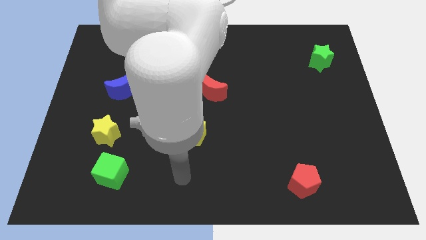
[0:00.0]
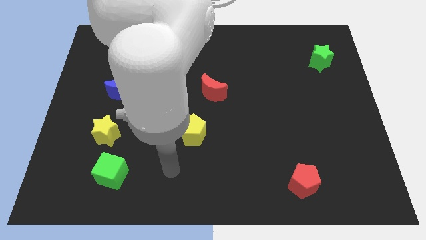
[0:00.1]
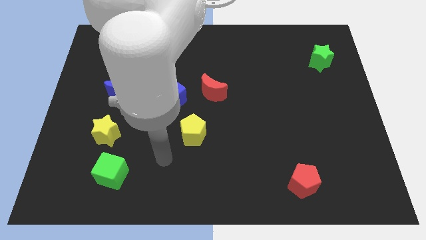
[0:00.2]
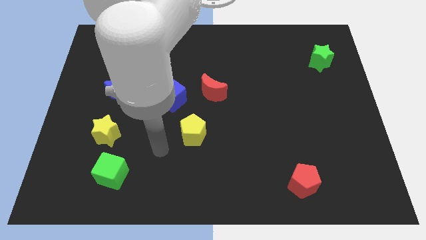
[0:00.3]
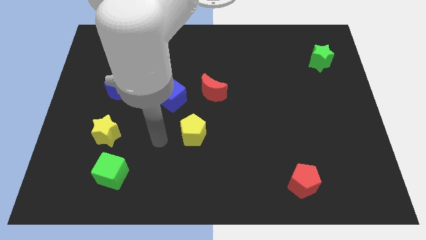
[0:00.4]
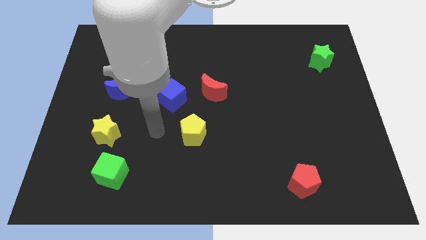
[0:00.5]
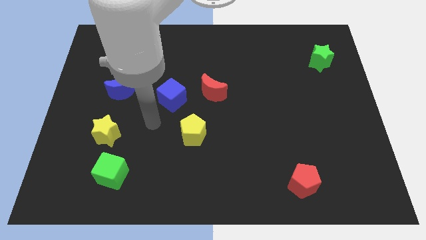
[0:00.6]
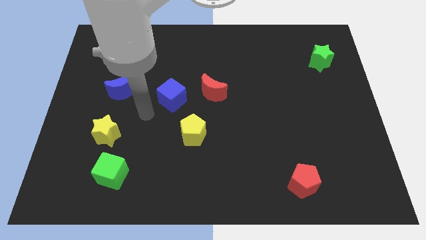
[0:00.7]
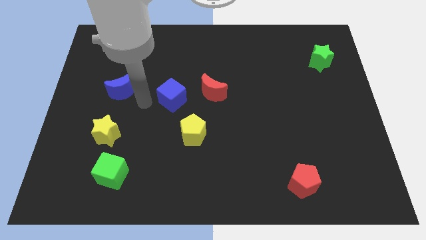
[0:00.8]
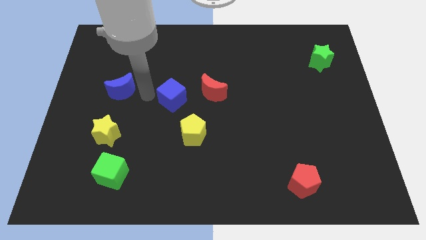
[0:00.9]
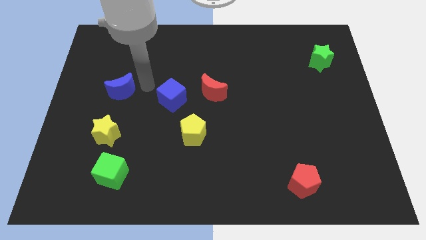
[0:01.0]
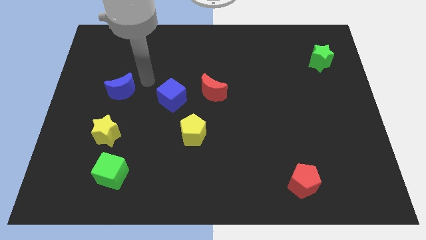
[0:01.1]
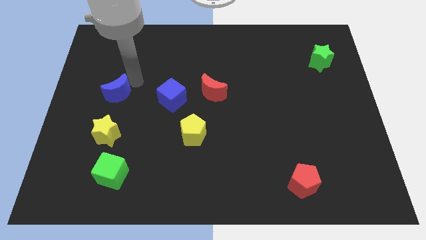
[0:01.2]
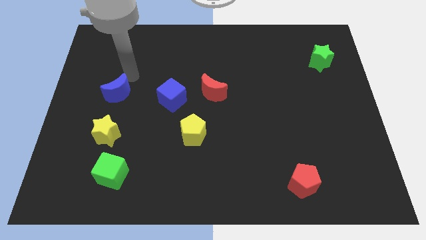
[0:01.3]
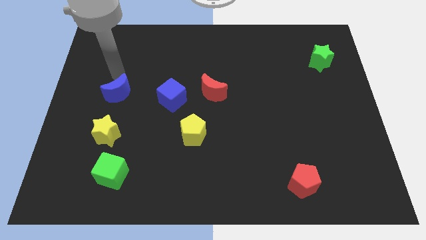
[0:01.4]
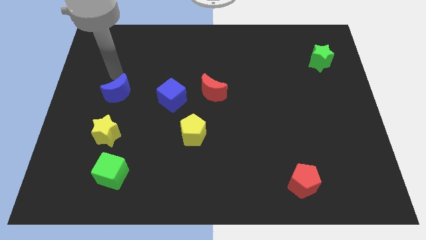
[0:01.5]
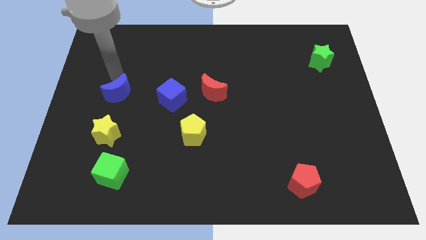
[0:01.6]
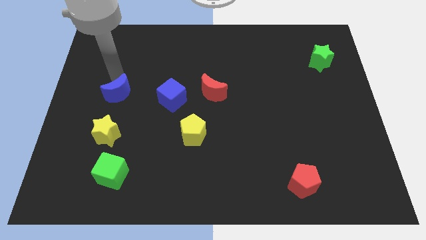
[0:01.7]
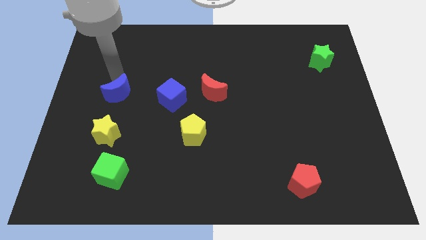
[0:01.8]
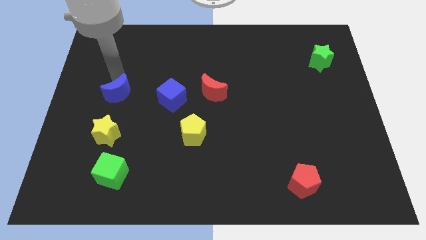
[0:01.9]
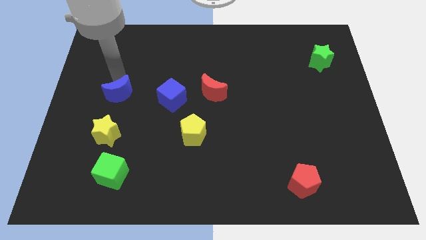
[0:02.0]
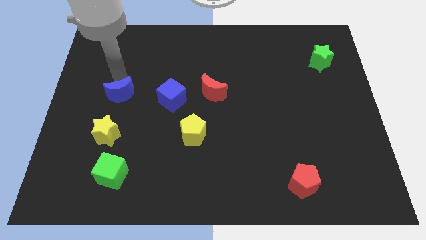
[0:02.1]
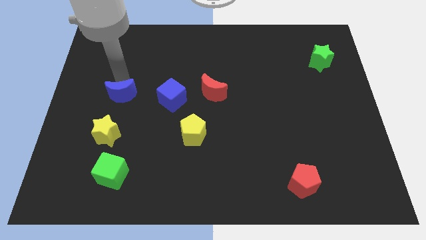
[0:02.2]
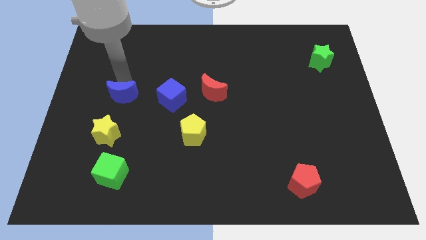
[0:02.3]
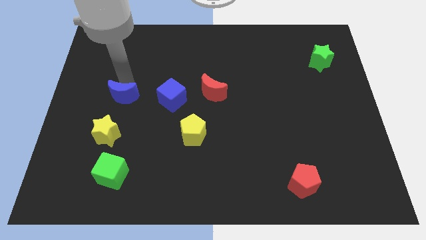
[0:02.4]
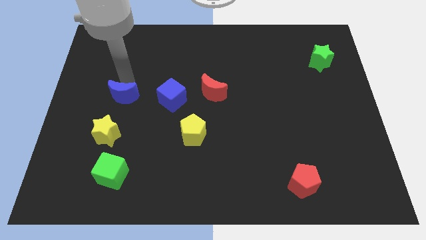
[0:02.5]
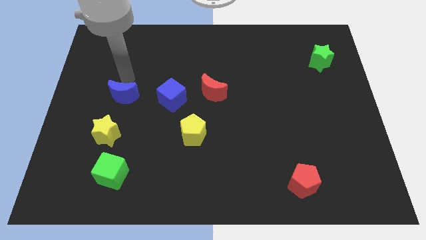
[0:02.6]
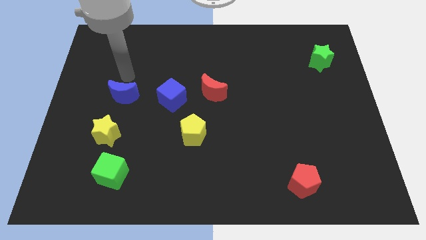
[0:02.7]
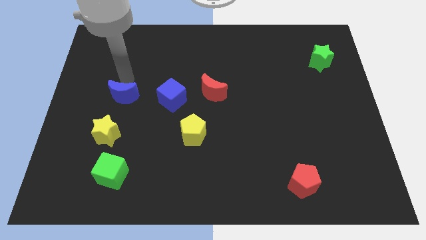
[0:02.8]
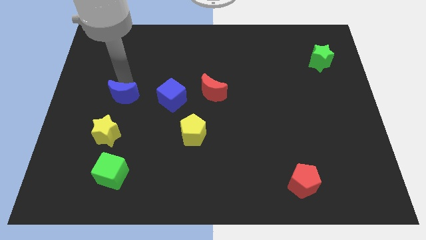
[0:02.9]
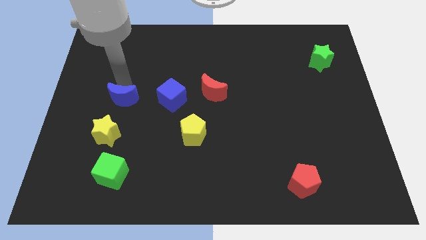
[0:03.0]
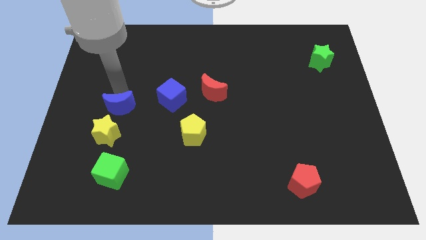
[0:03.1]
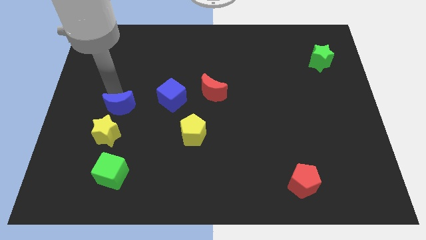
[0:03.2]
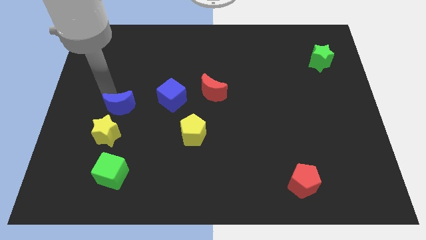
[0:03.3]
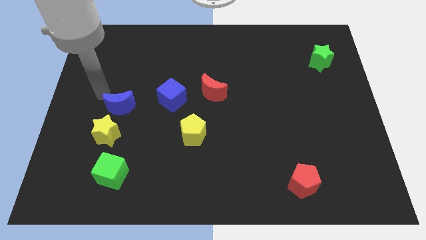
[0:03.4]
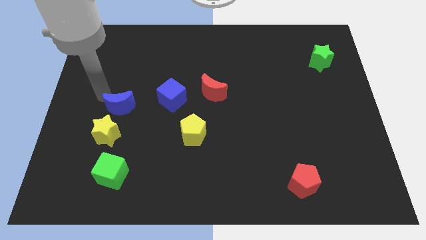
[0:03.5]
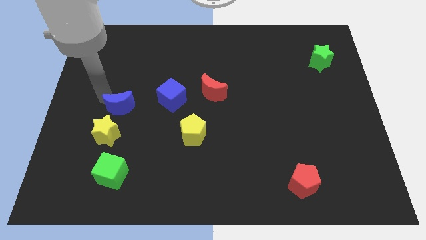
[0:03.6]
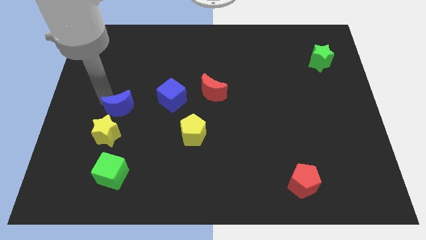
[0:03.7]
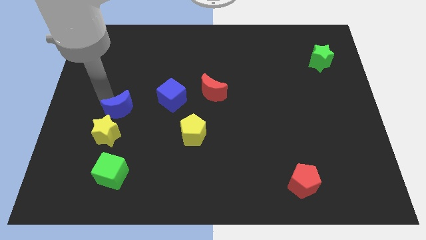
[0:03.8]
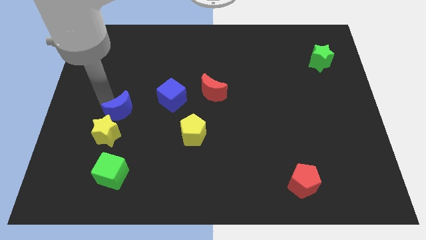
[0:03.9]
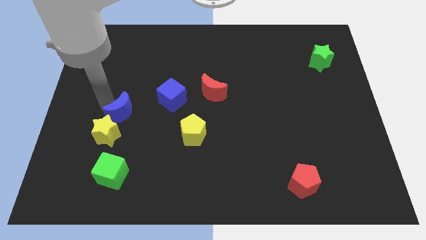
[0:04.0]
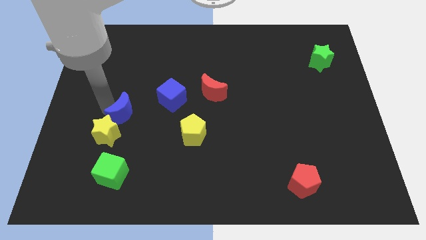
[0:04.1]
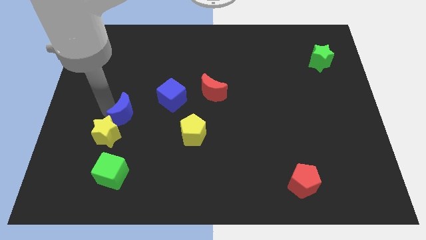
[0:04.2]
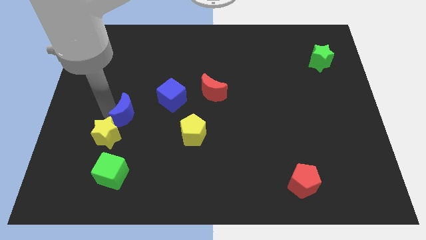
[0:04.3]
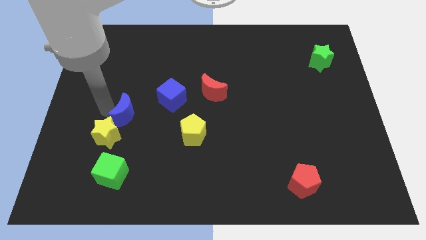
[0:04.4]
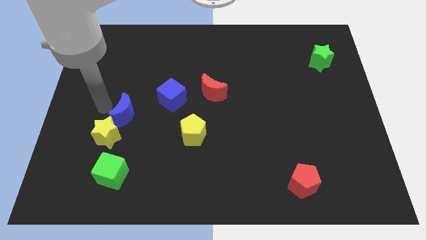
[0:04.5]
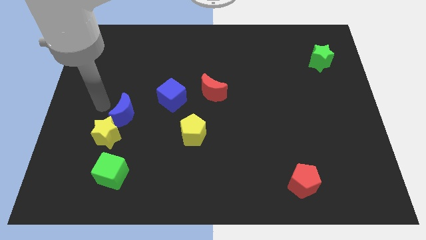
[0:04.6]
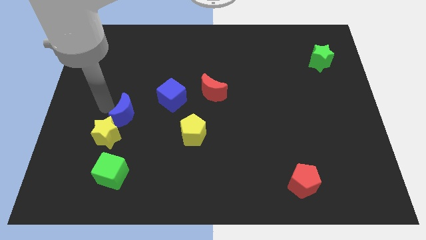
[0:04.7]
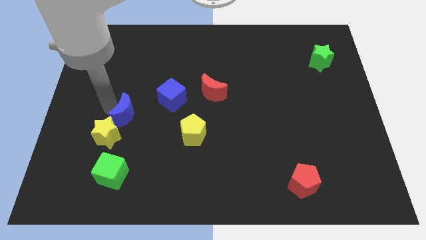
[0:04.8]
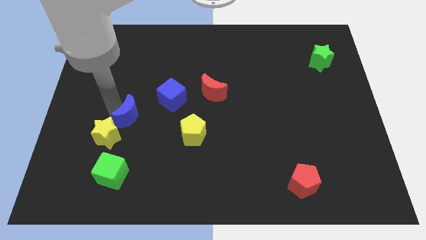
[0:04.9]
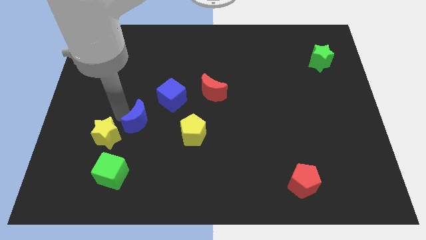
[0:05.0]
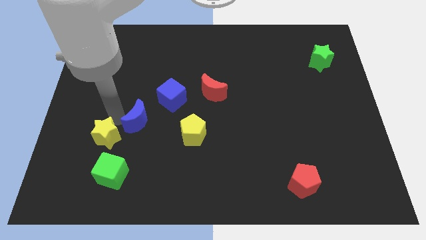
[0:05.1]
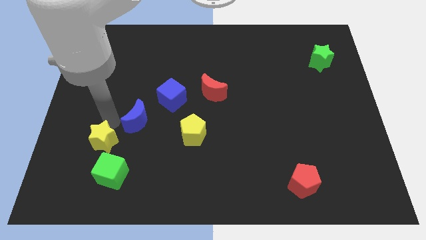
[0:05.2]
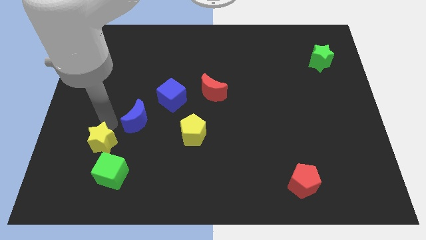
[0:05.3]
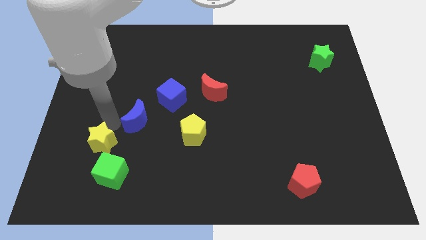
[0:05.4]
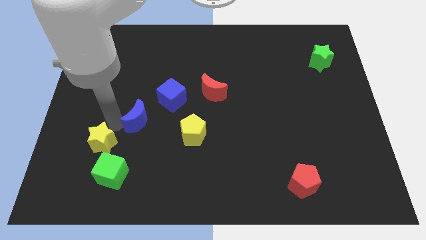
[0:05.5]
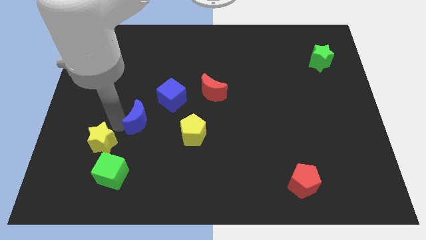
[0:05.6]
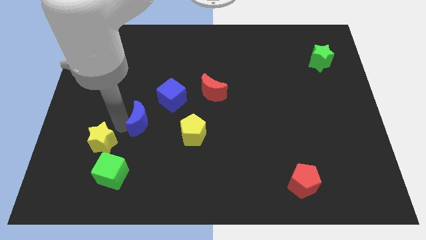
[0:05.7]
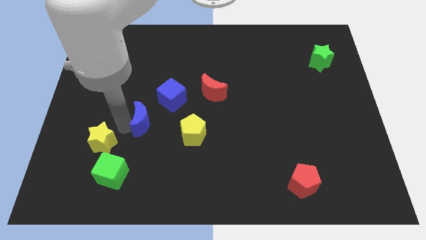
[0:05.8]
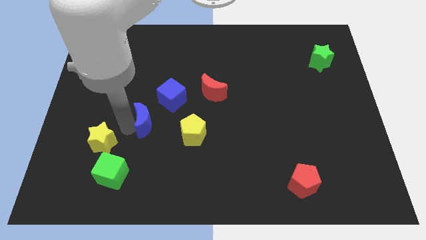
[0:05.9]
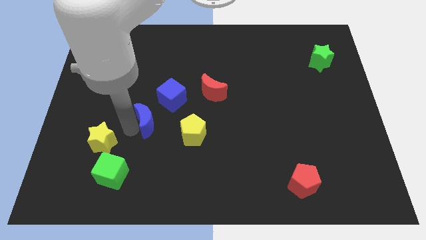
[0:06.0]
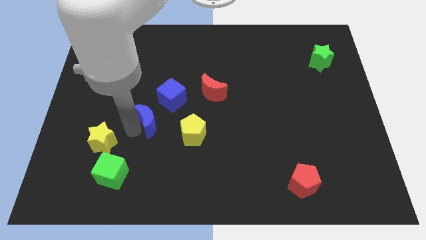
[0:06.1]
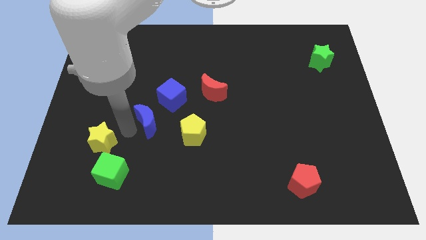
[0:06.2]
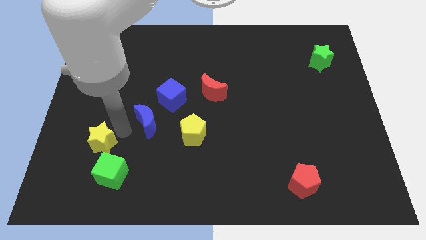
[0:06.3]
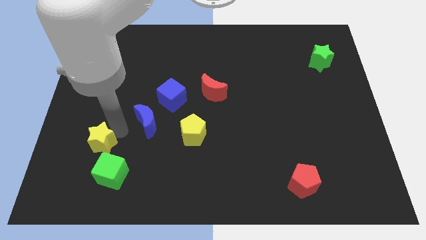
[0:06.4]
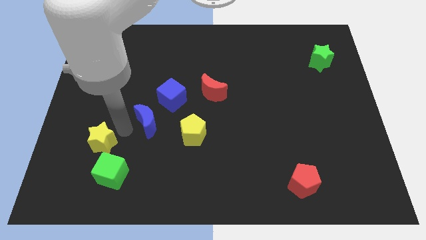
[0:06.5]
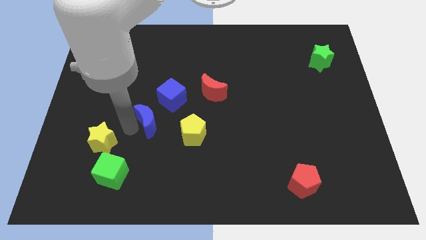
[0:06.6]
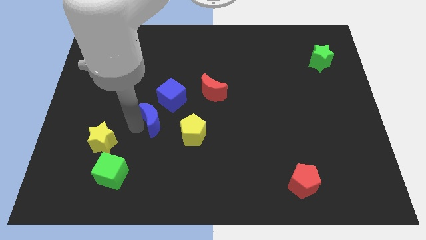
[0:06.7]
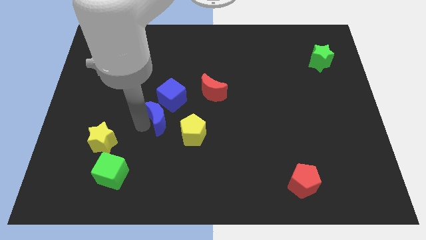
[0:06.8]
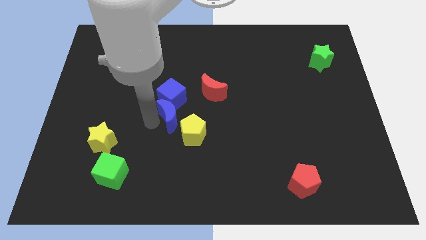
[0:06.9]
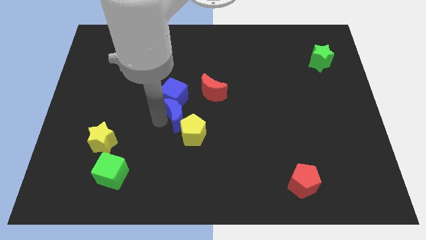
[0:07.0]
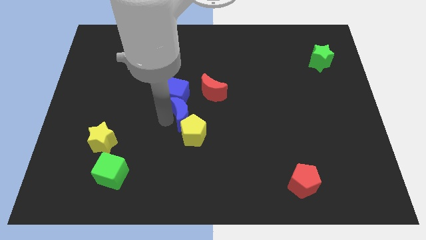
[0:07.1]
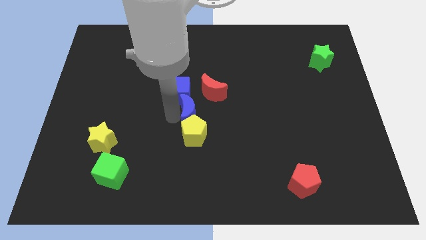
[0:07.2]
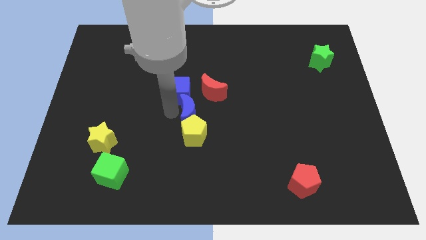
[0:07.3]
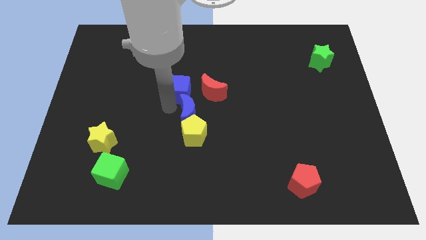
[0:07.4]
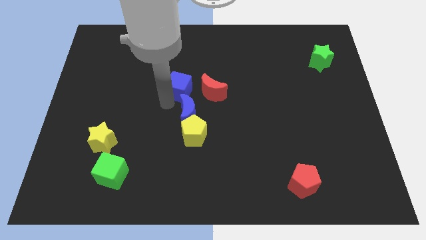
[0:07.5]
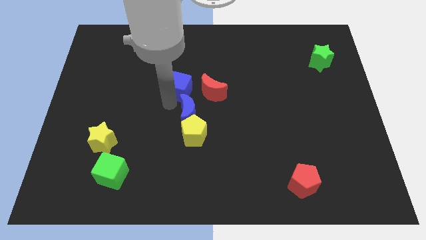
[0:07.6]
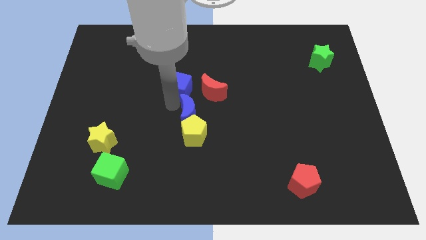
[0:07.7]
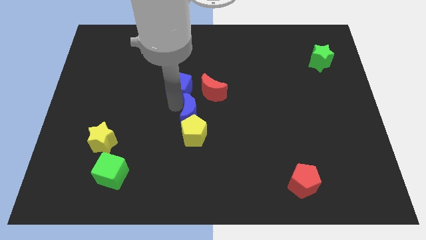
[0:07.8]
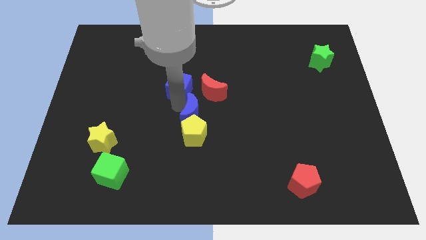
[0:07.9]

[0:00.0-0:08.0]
move the blue moon to the bottom side of the red moon
